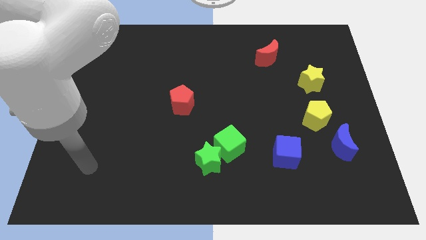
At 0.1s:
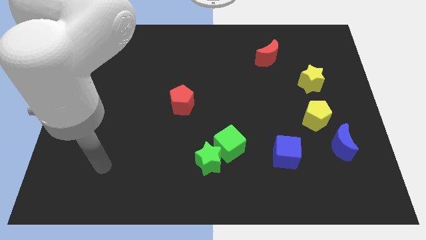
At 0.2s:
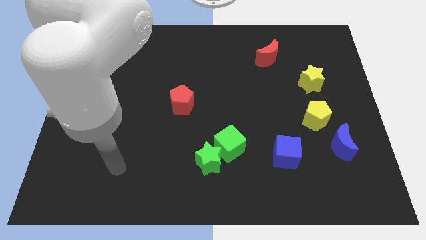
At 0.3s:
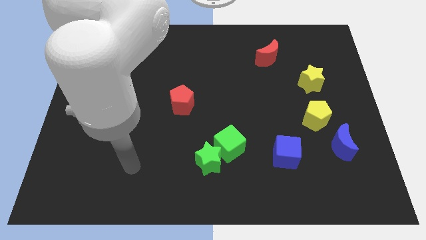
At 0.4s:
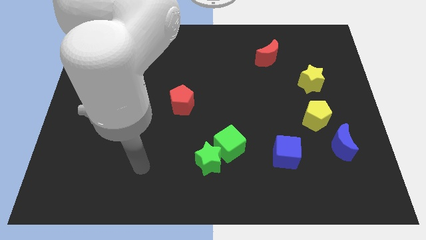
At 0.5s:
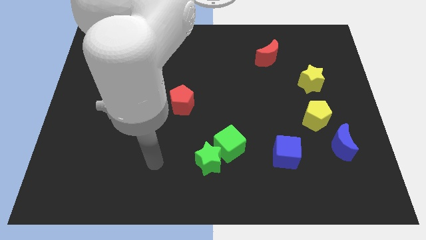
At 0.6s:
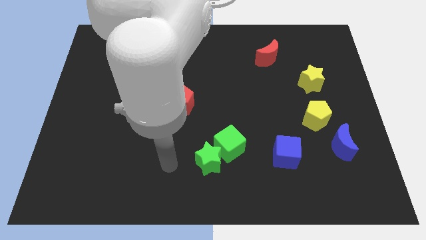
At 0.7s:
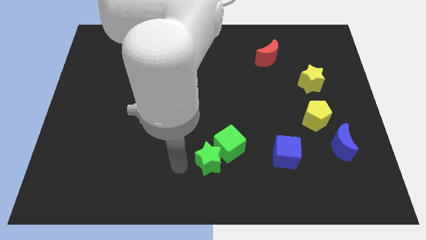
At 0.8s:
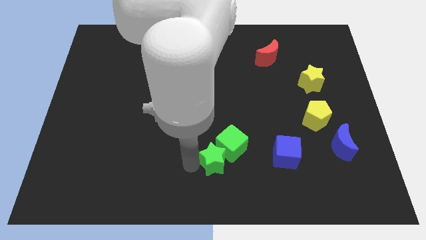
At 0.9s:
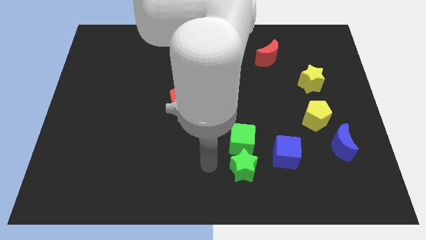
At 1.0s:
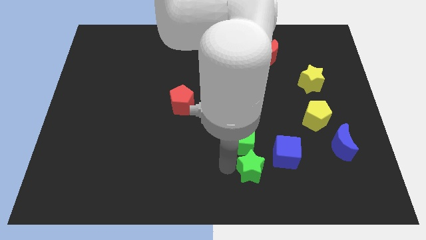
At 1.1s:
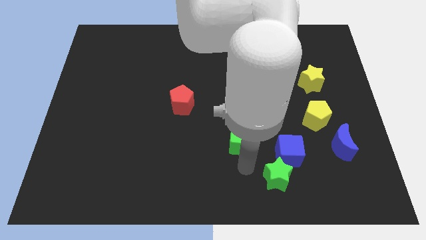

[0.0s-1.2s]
separate the green cube from the green star

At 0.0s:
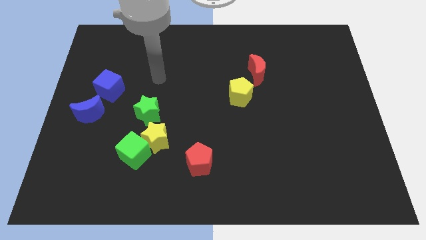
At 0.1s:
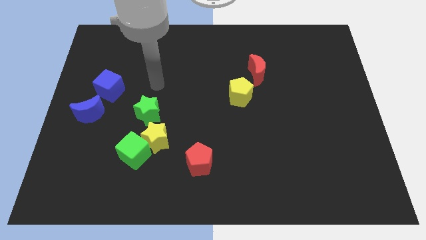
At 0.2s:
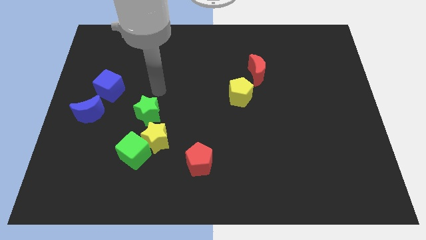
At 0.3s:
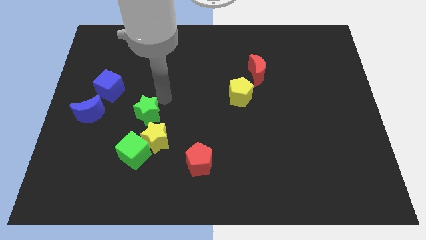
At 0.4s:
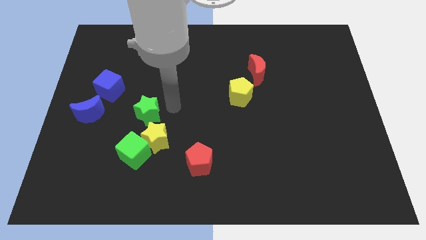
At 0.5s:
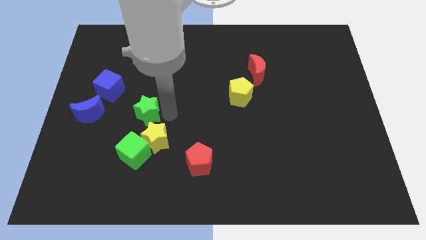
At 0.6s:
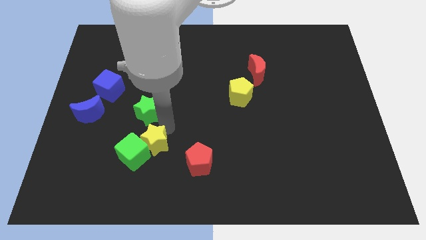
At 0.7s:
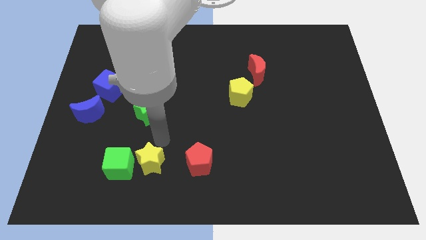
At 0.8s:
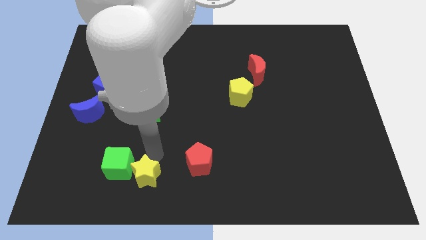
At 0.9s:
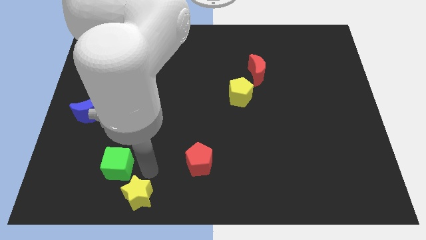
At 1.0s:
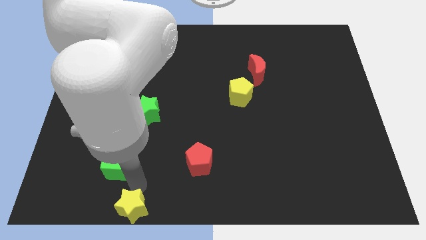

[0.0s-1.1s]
separate the green cube from the yellow star

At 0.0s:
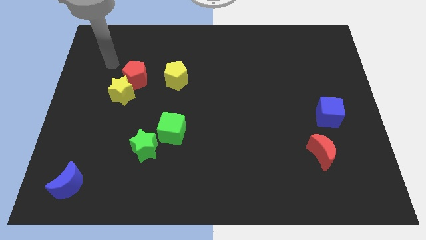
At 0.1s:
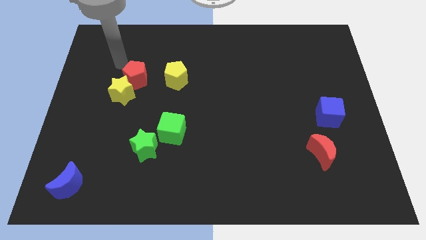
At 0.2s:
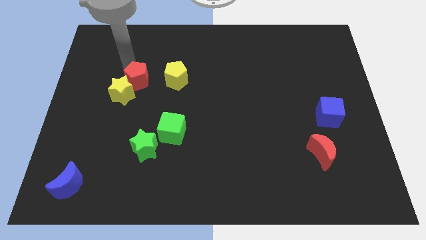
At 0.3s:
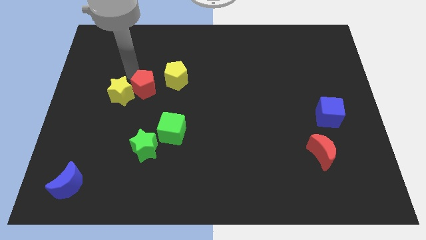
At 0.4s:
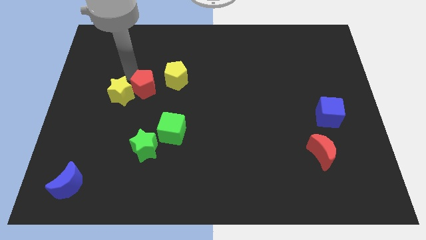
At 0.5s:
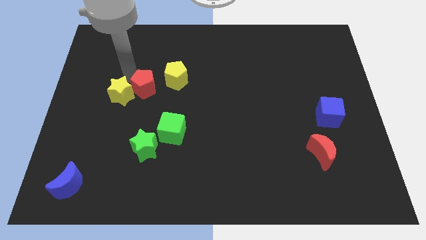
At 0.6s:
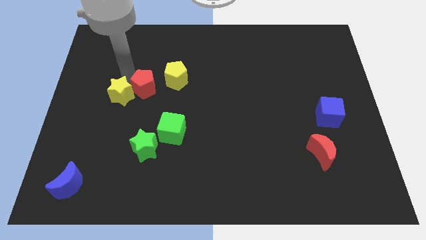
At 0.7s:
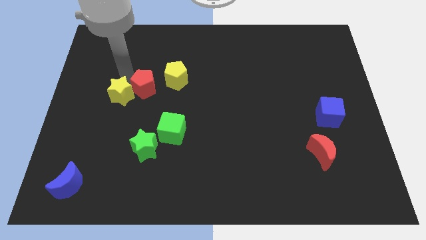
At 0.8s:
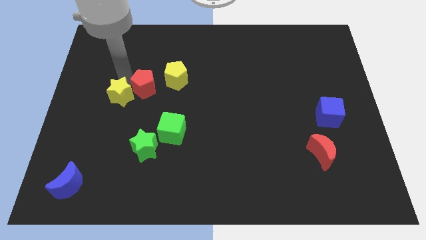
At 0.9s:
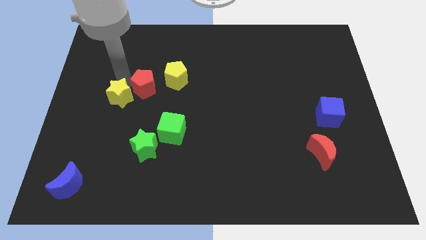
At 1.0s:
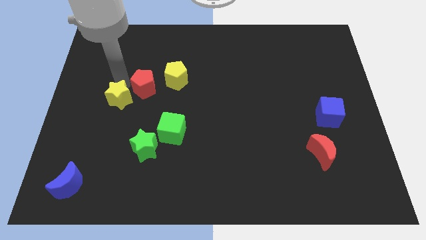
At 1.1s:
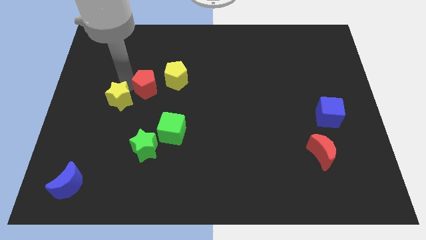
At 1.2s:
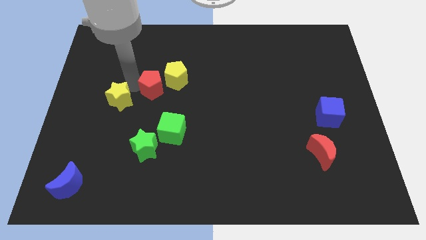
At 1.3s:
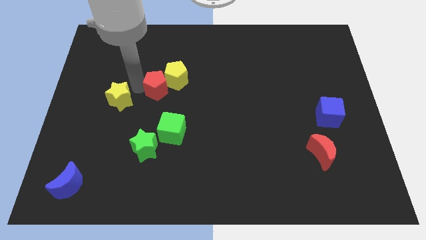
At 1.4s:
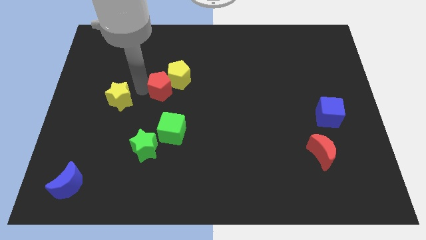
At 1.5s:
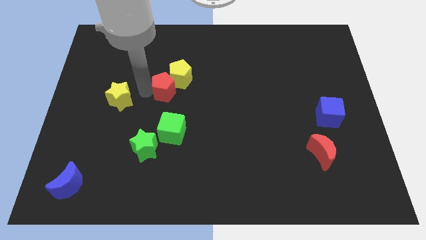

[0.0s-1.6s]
separate the yellow star from the red pentagon

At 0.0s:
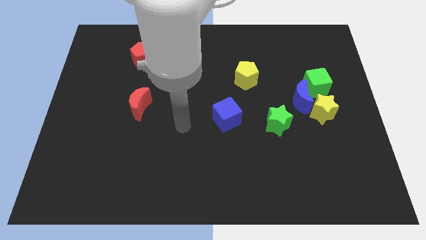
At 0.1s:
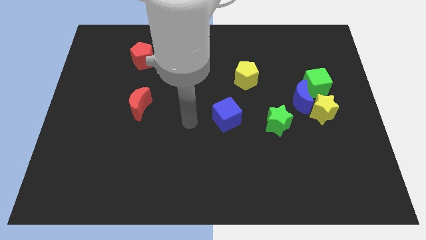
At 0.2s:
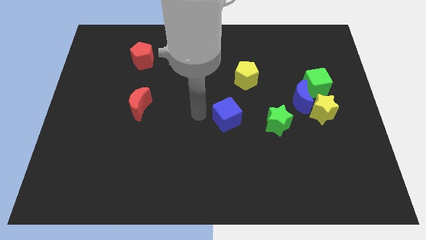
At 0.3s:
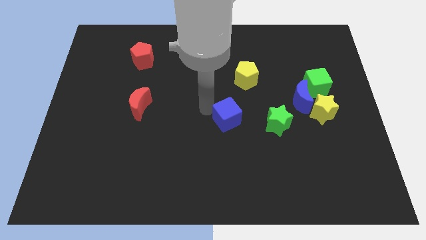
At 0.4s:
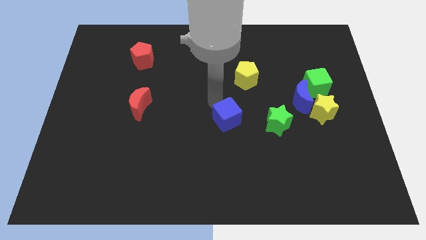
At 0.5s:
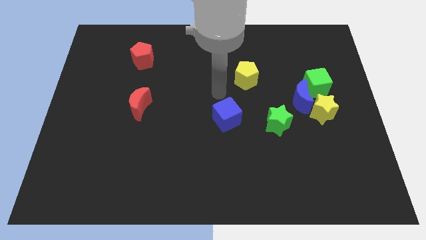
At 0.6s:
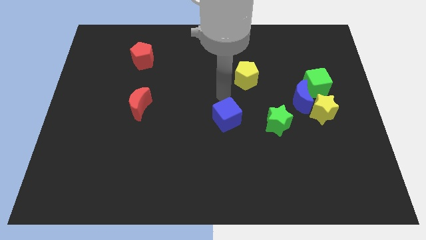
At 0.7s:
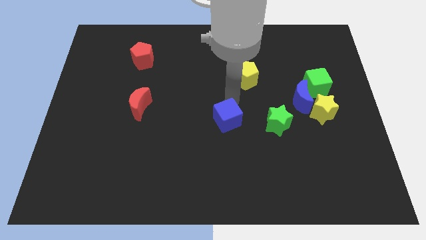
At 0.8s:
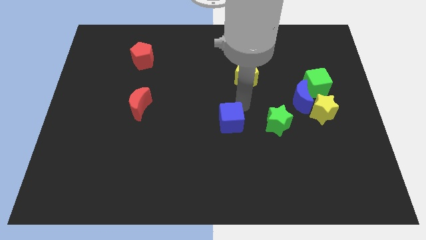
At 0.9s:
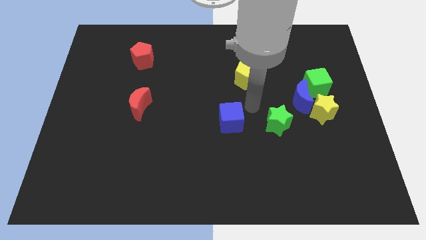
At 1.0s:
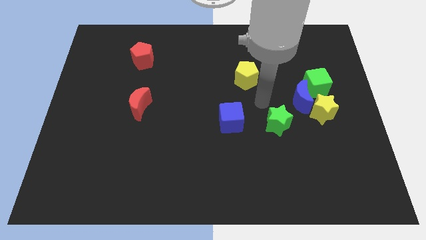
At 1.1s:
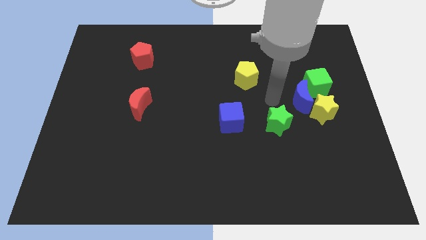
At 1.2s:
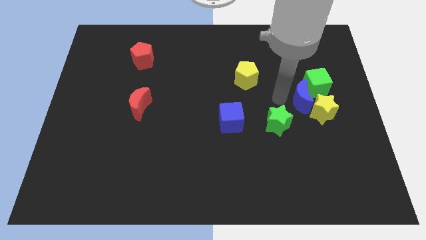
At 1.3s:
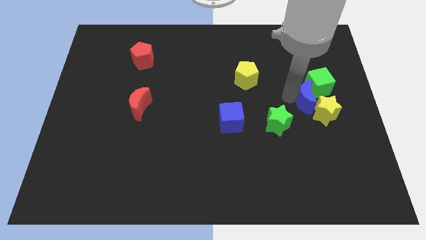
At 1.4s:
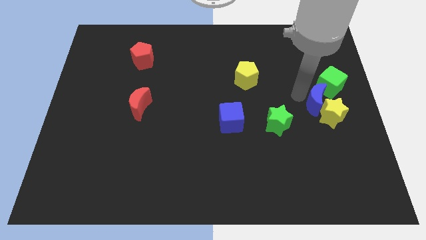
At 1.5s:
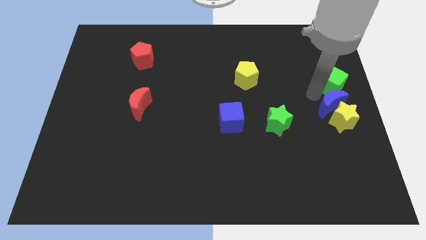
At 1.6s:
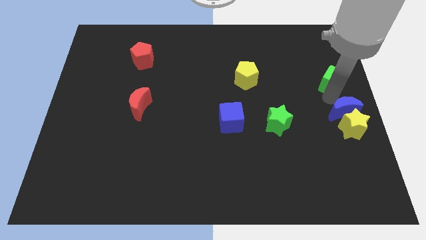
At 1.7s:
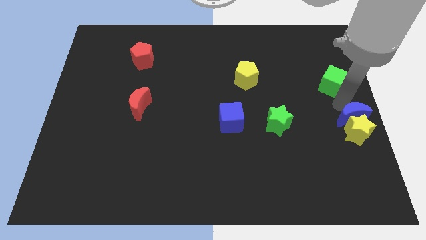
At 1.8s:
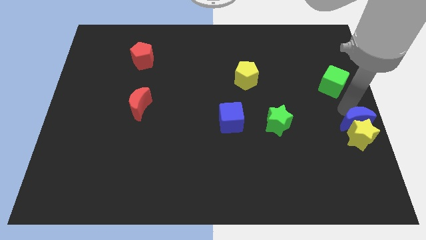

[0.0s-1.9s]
move the yellow star away from the blue moon and green cube

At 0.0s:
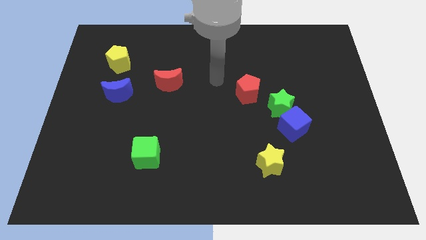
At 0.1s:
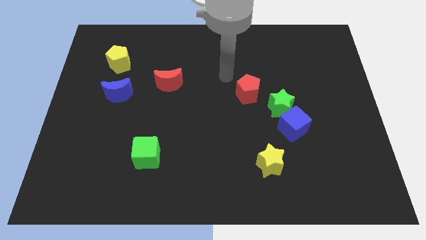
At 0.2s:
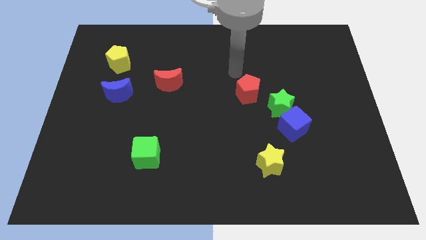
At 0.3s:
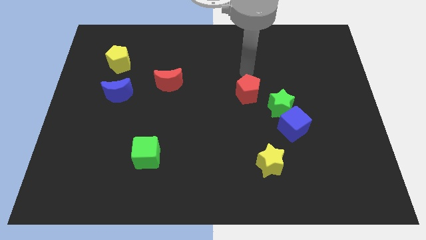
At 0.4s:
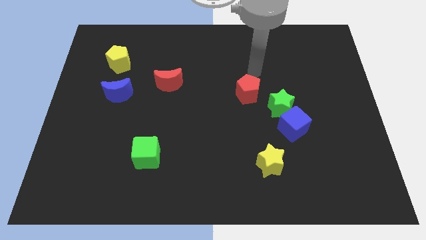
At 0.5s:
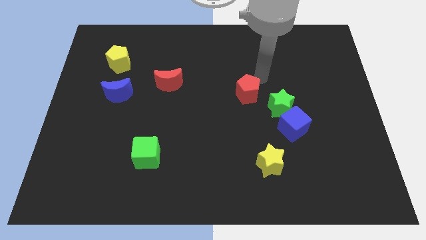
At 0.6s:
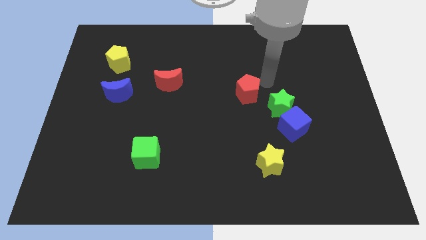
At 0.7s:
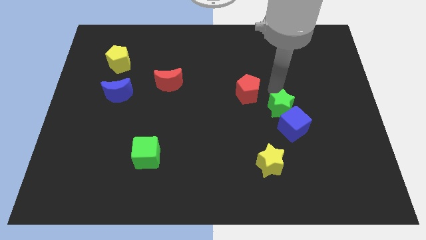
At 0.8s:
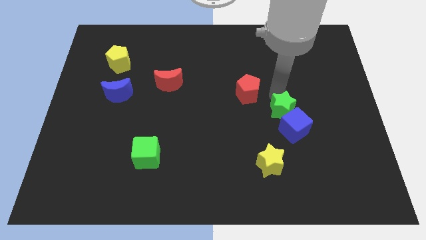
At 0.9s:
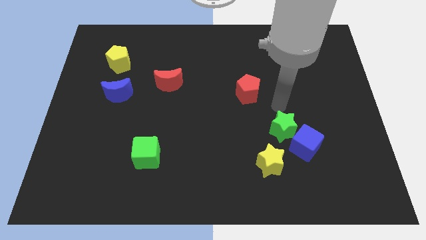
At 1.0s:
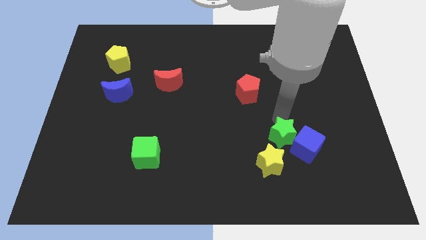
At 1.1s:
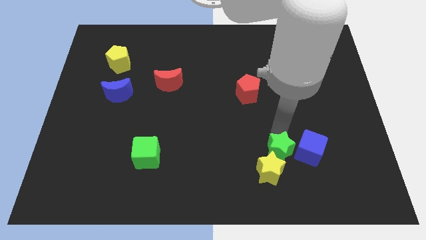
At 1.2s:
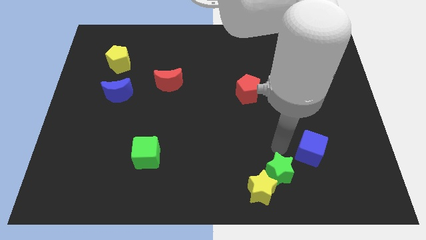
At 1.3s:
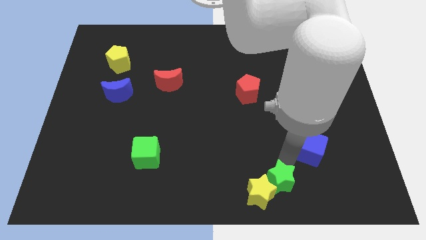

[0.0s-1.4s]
separate the blue cube from the green star

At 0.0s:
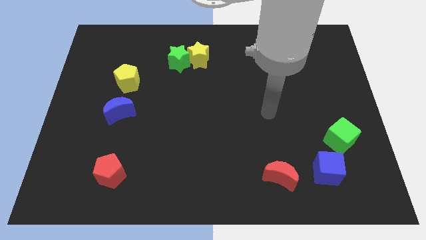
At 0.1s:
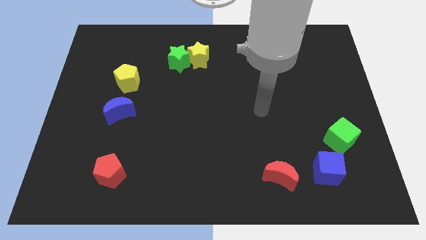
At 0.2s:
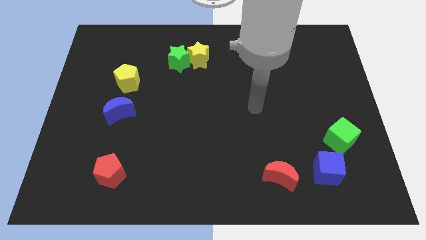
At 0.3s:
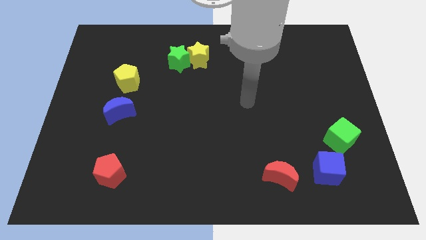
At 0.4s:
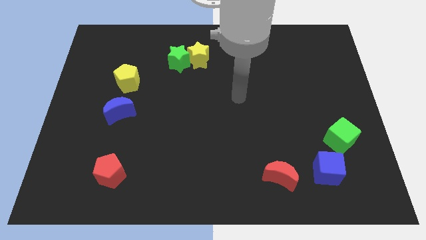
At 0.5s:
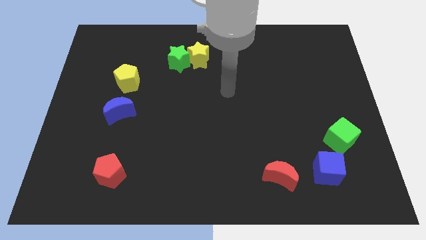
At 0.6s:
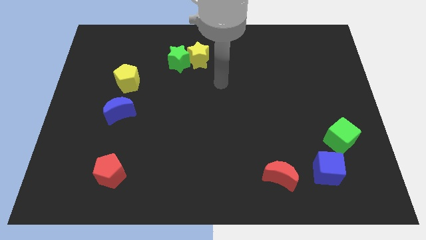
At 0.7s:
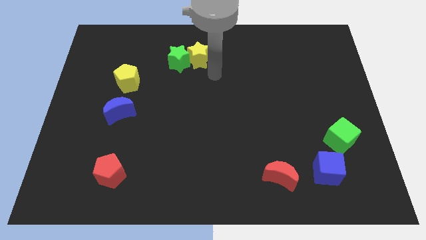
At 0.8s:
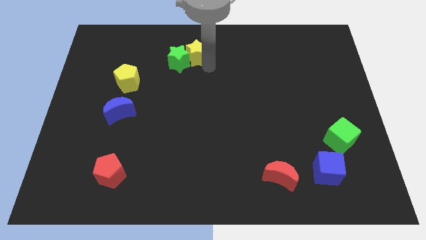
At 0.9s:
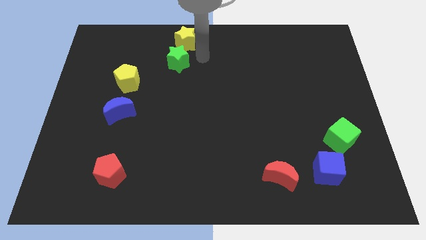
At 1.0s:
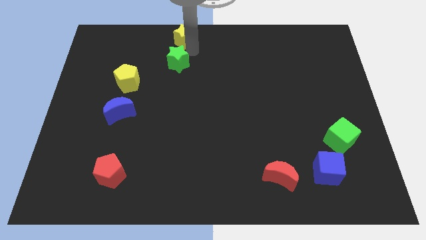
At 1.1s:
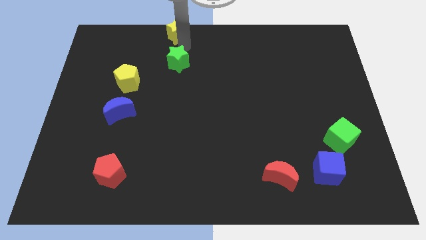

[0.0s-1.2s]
move the green star away from the yellow star

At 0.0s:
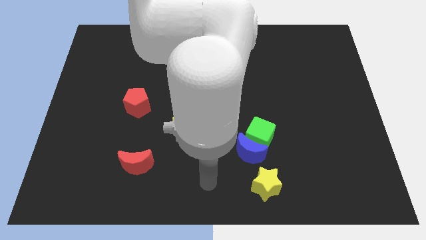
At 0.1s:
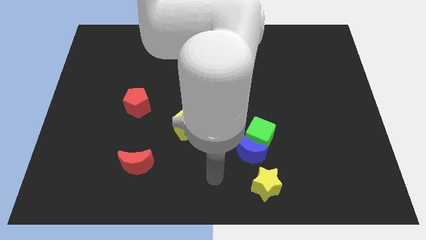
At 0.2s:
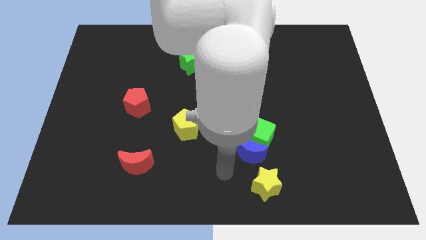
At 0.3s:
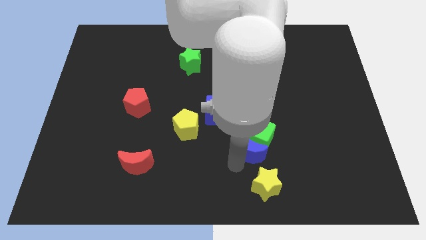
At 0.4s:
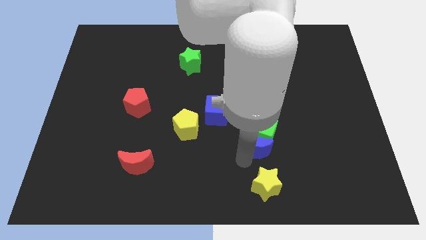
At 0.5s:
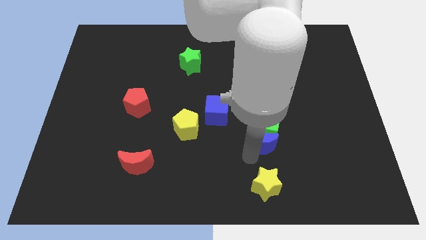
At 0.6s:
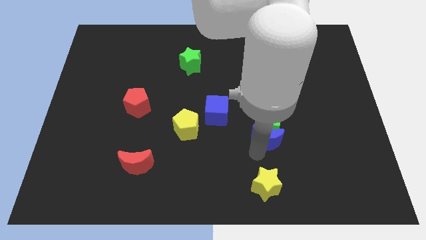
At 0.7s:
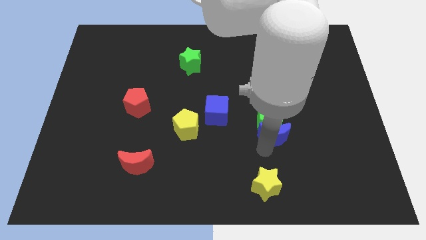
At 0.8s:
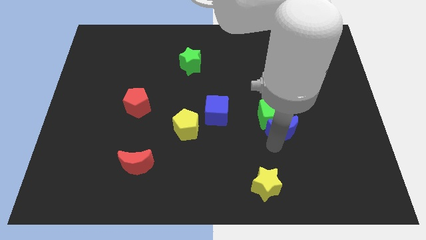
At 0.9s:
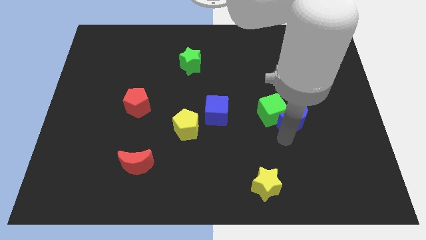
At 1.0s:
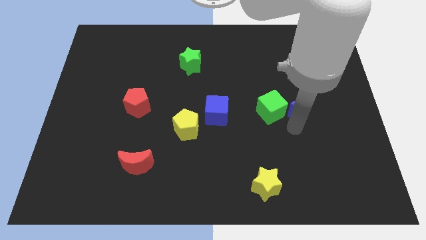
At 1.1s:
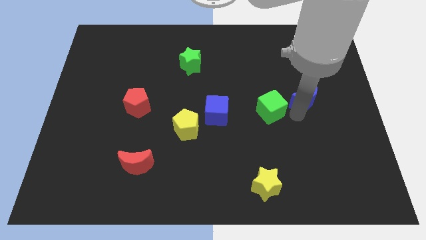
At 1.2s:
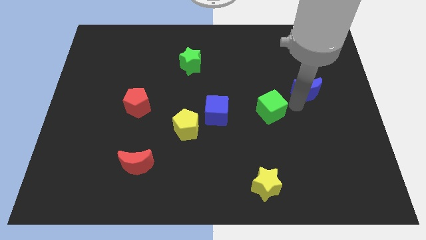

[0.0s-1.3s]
move the green cube away from the blue moon
